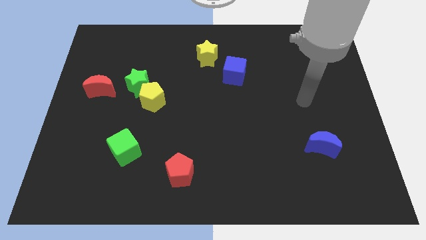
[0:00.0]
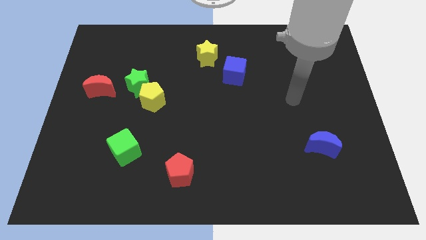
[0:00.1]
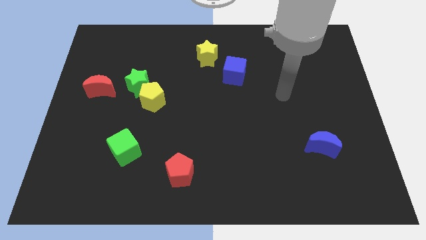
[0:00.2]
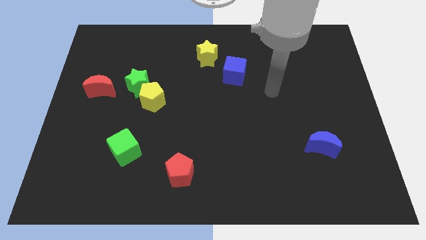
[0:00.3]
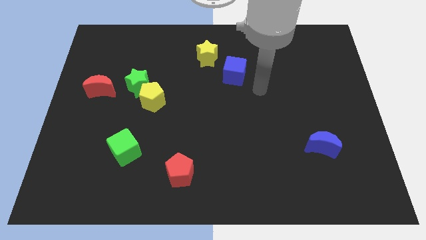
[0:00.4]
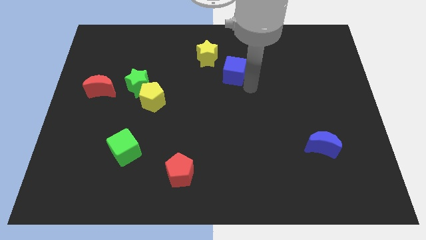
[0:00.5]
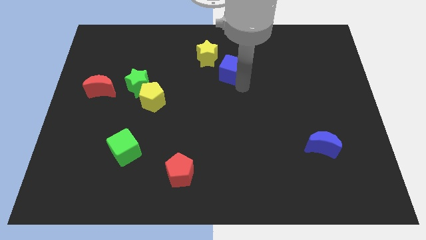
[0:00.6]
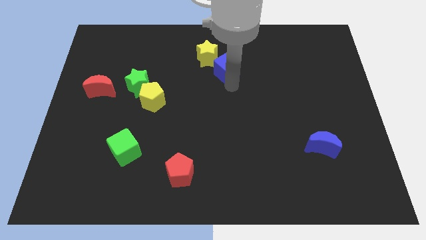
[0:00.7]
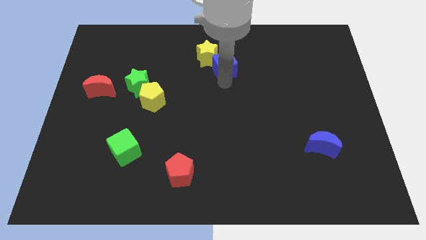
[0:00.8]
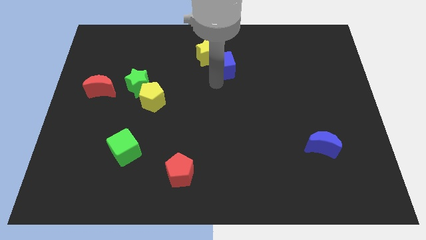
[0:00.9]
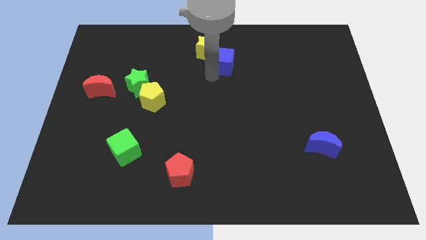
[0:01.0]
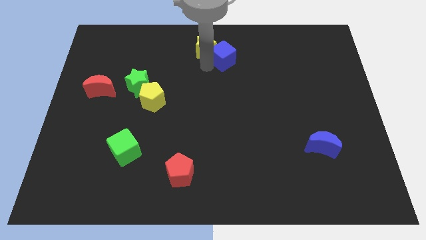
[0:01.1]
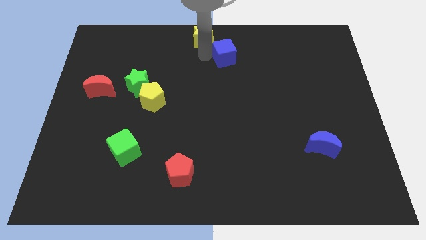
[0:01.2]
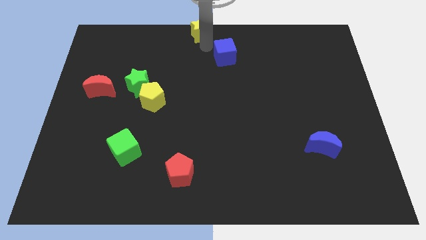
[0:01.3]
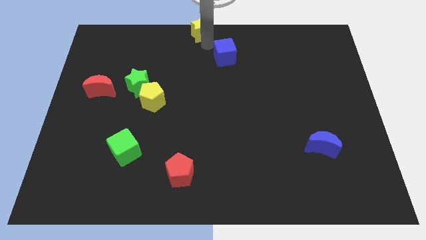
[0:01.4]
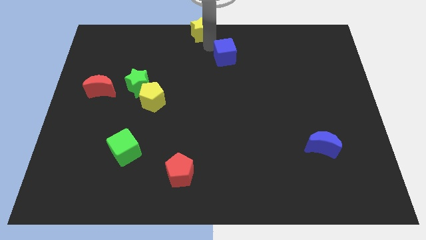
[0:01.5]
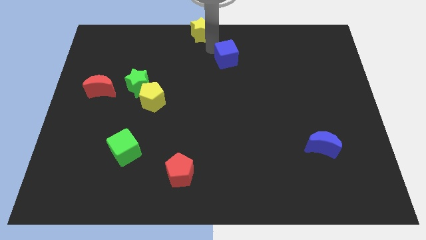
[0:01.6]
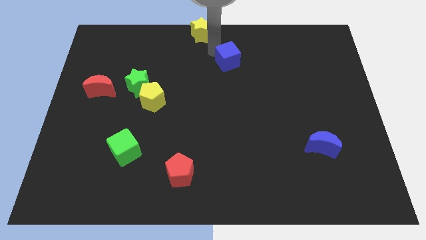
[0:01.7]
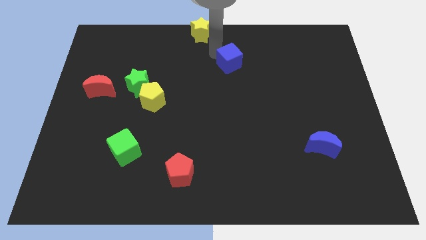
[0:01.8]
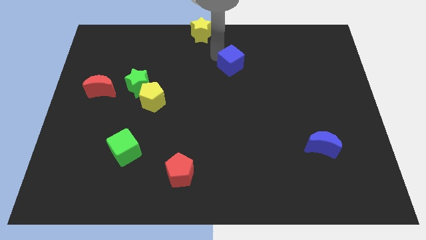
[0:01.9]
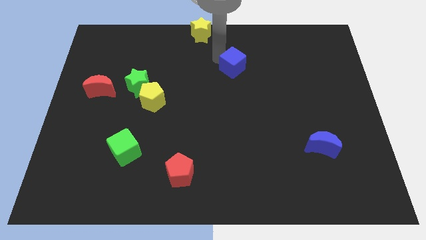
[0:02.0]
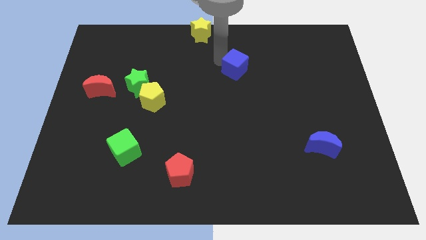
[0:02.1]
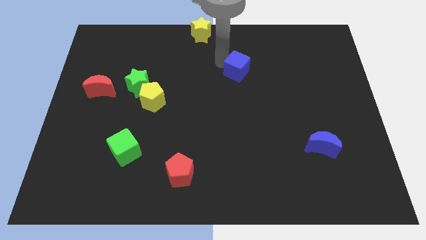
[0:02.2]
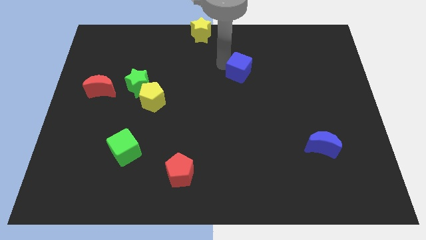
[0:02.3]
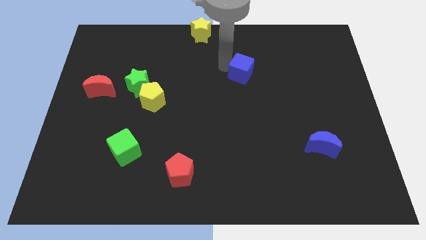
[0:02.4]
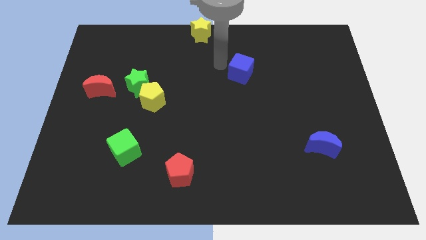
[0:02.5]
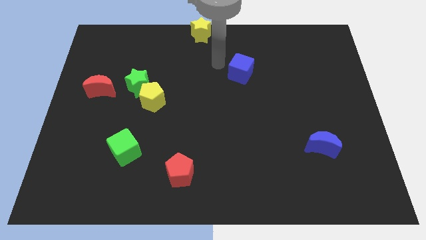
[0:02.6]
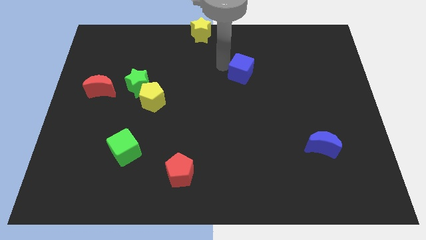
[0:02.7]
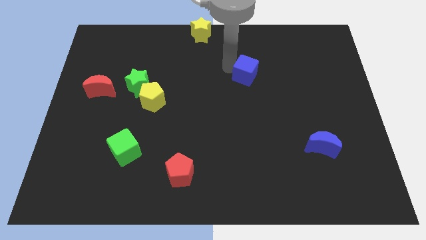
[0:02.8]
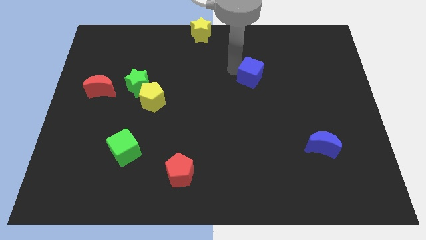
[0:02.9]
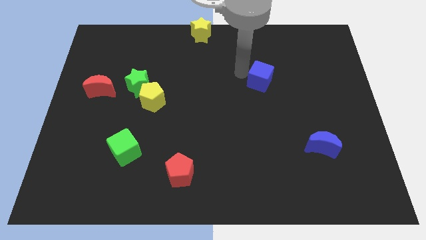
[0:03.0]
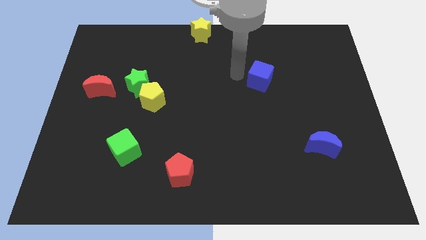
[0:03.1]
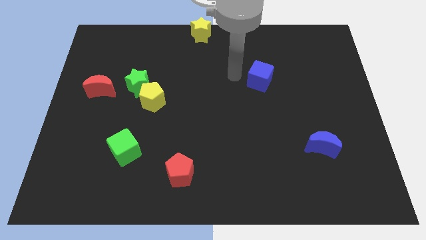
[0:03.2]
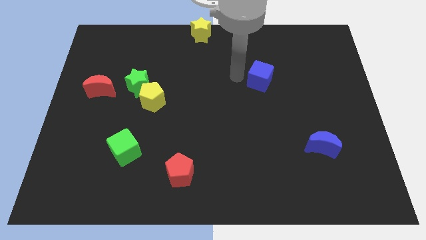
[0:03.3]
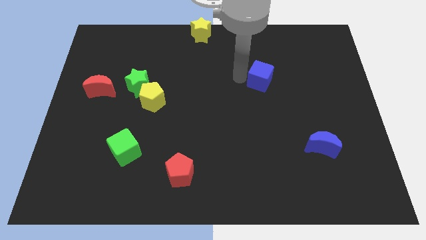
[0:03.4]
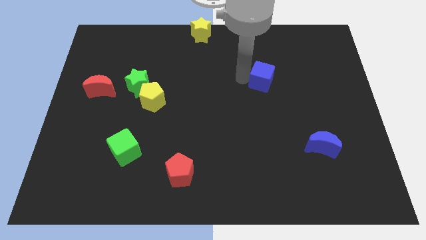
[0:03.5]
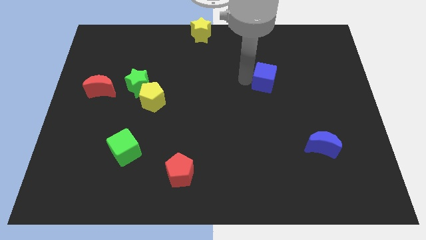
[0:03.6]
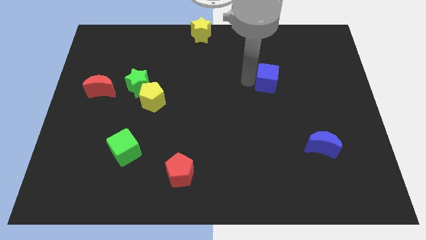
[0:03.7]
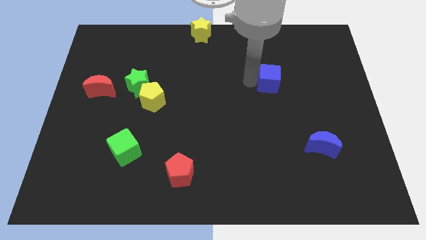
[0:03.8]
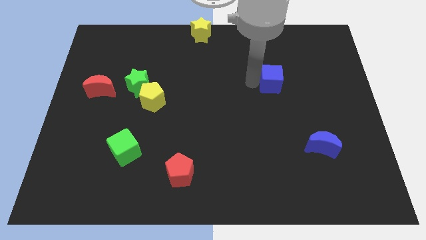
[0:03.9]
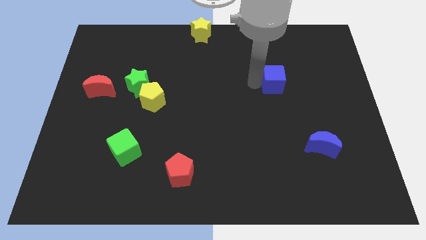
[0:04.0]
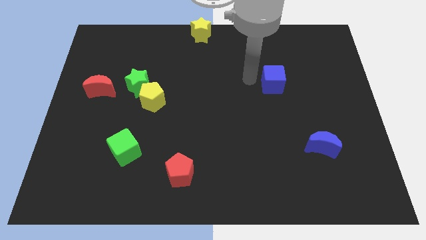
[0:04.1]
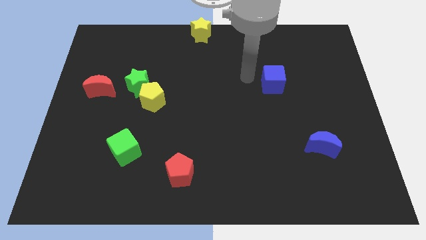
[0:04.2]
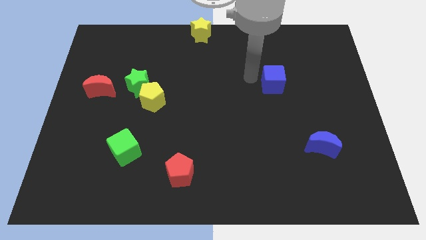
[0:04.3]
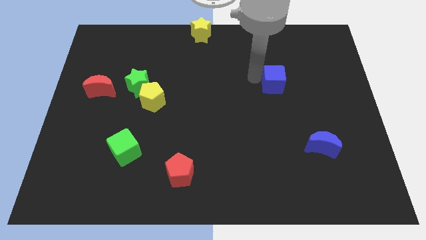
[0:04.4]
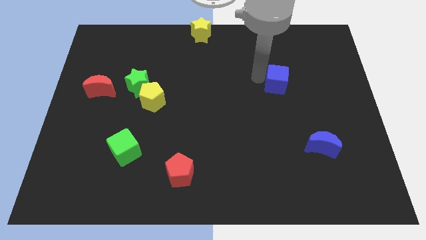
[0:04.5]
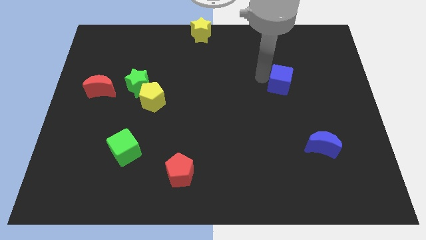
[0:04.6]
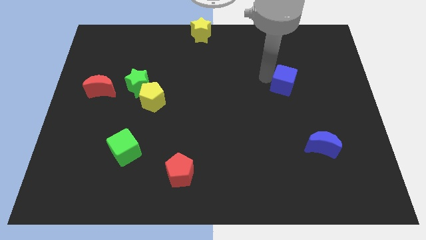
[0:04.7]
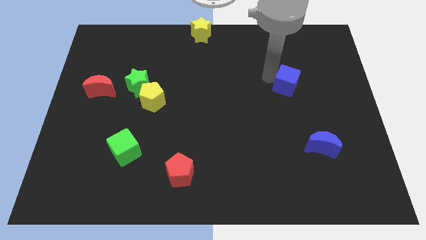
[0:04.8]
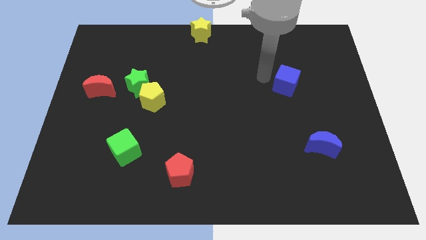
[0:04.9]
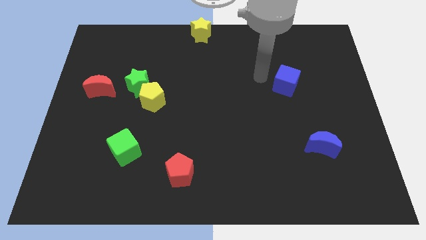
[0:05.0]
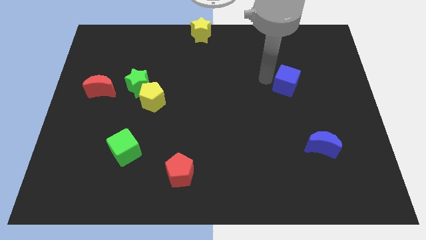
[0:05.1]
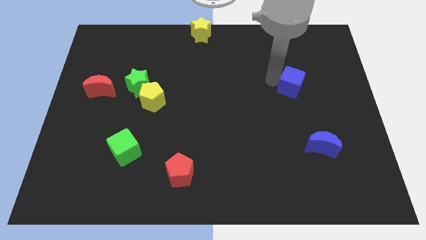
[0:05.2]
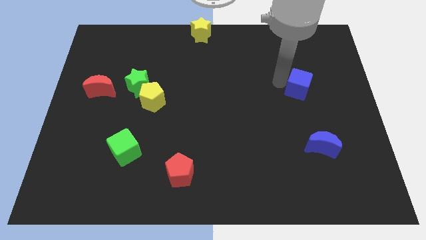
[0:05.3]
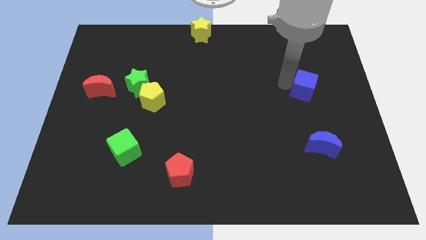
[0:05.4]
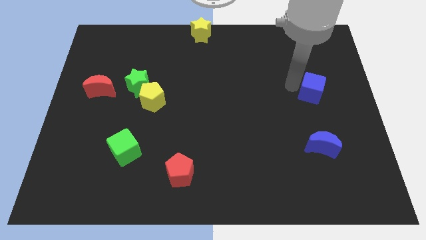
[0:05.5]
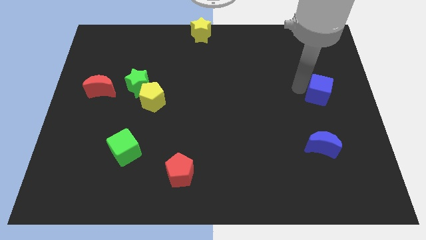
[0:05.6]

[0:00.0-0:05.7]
slide the blue cube to the right side of the board

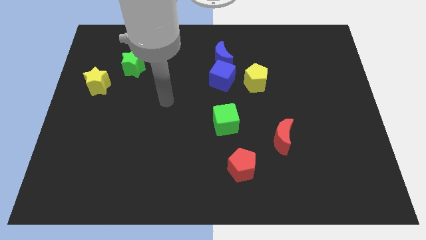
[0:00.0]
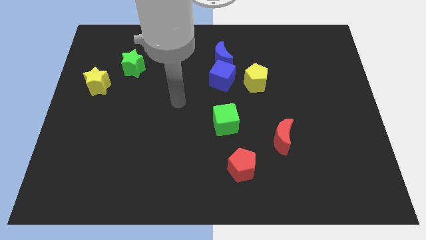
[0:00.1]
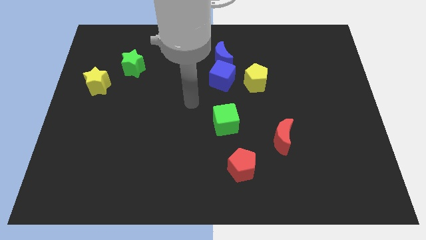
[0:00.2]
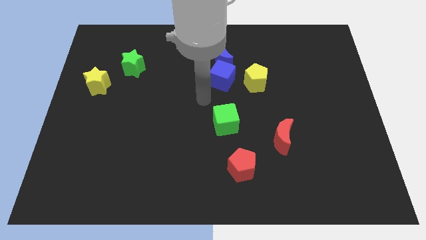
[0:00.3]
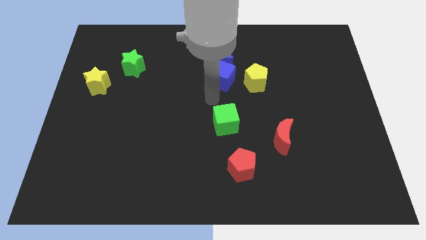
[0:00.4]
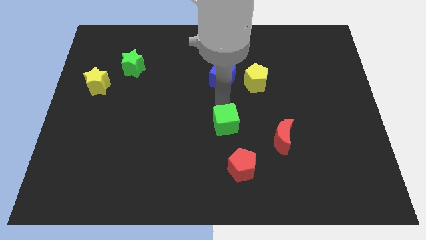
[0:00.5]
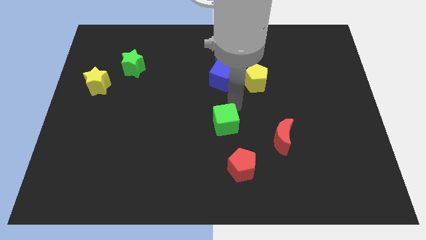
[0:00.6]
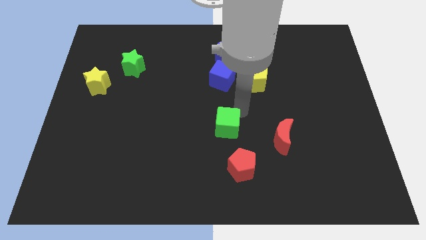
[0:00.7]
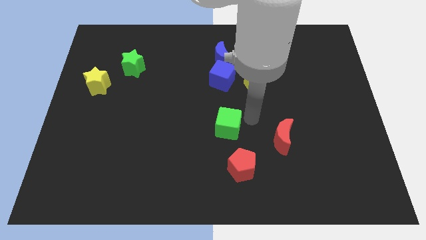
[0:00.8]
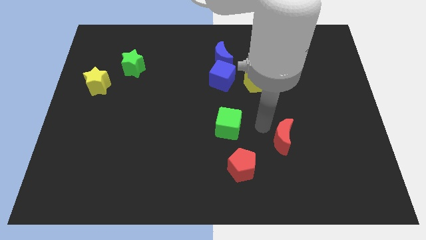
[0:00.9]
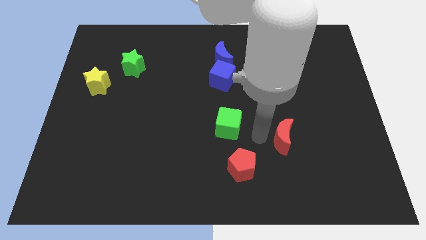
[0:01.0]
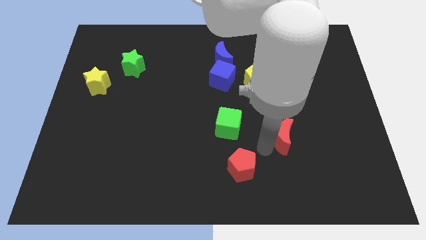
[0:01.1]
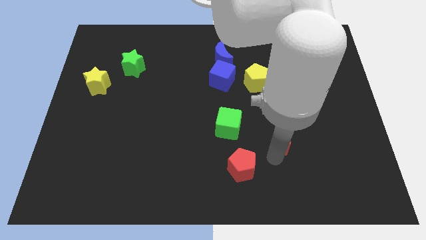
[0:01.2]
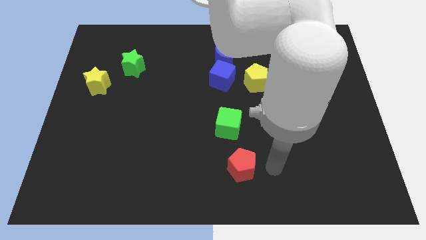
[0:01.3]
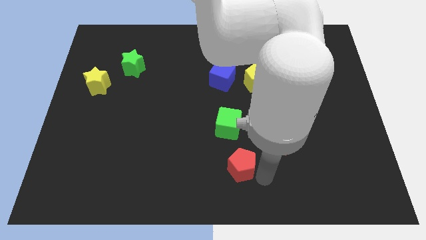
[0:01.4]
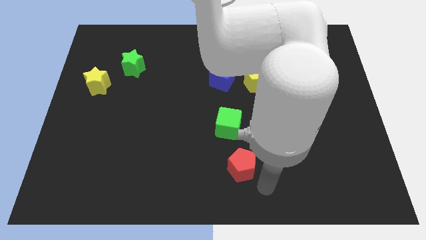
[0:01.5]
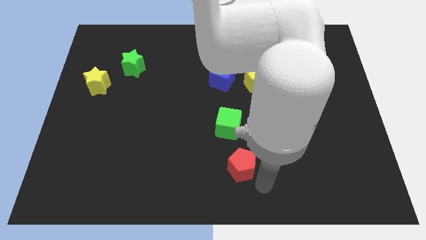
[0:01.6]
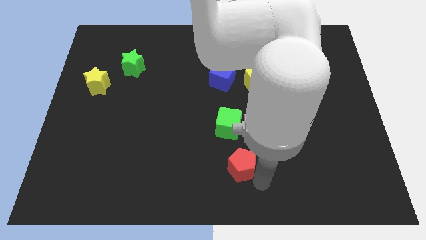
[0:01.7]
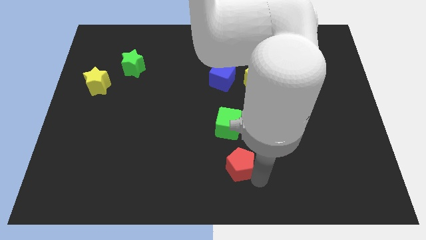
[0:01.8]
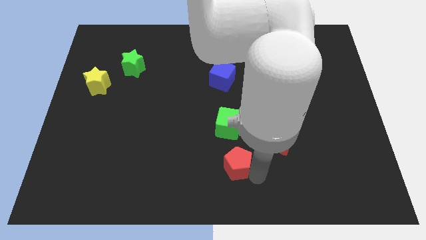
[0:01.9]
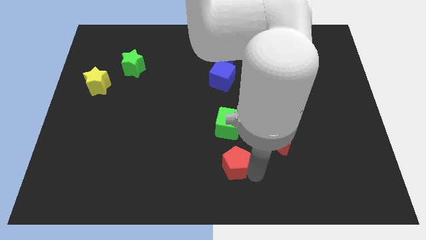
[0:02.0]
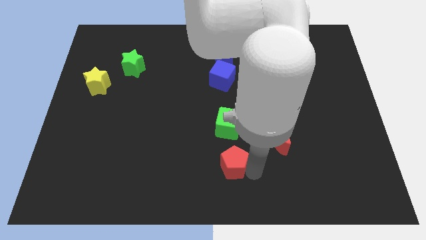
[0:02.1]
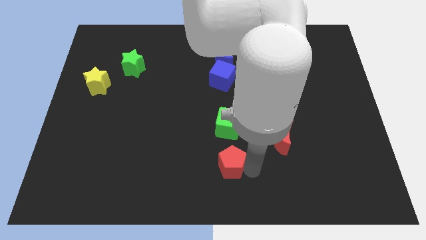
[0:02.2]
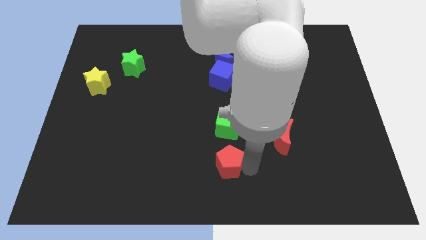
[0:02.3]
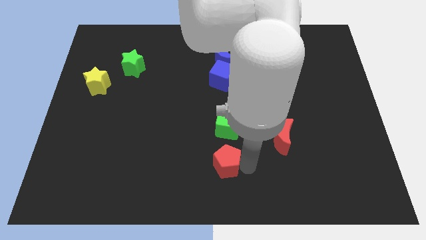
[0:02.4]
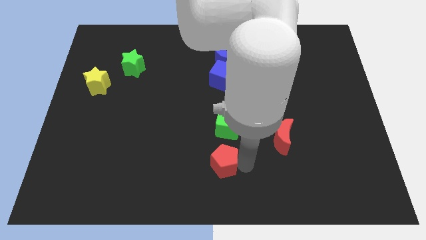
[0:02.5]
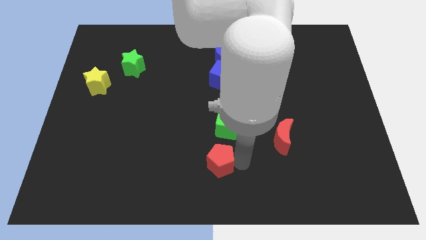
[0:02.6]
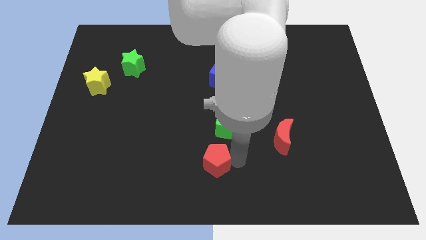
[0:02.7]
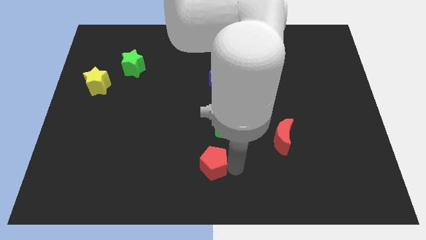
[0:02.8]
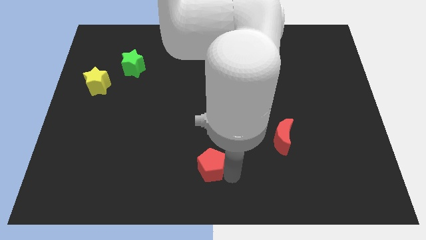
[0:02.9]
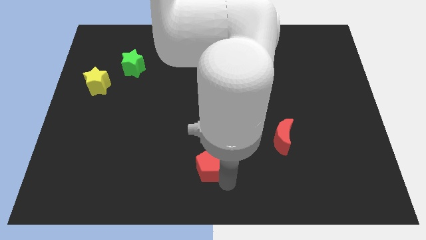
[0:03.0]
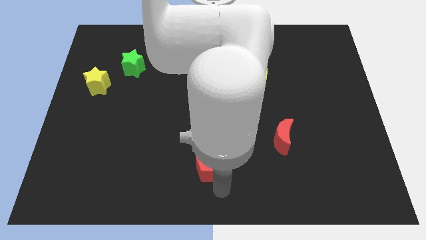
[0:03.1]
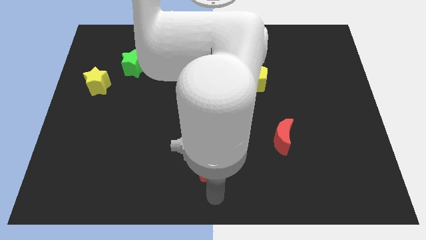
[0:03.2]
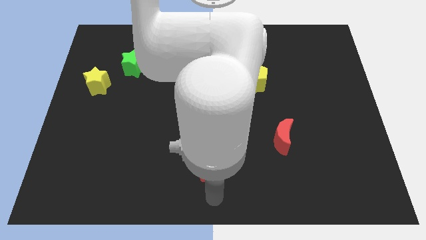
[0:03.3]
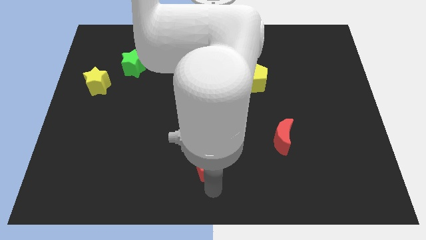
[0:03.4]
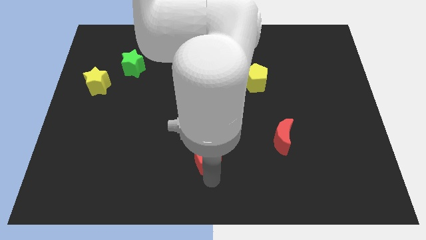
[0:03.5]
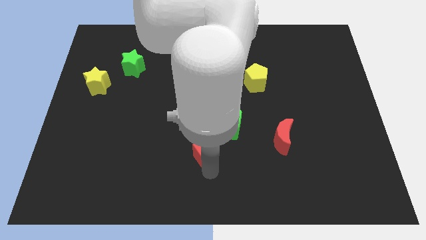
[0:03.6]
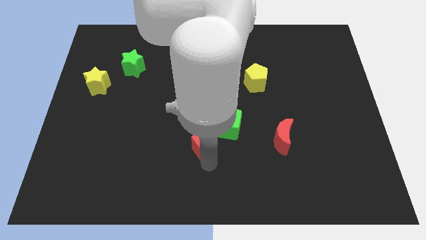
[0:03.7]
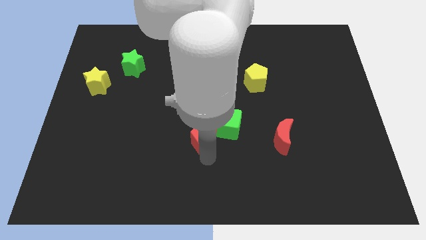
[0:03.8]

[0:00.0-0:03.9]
slide the red pentagon to the middle of the board
